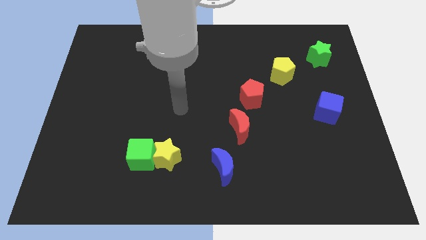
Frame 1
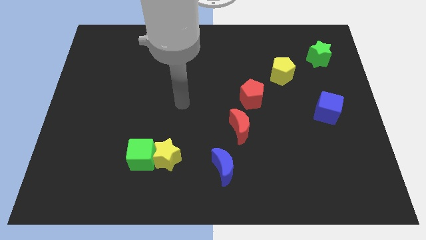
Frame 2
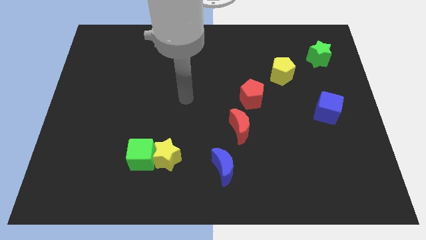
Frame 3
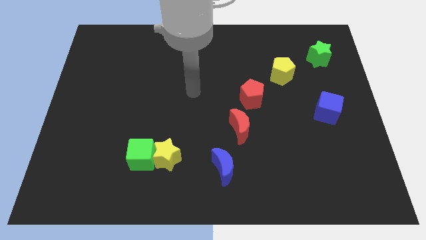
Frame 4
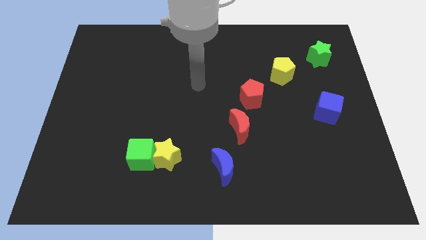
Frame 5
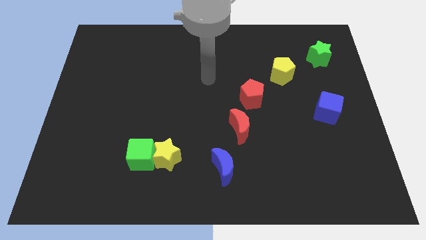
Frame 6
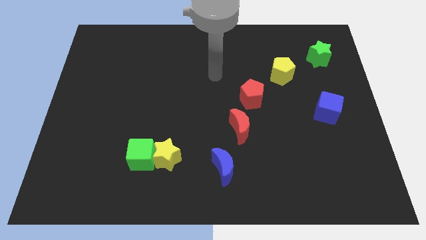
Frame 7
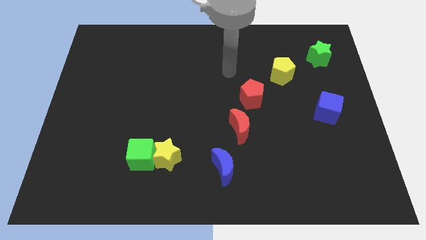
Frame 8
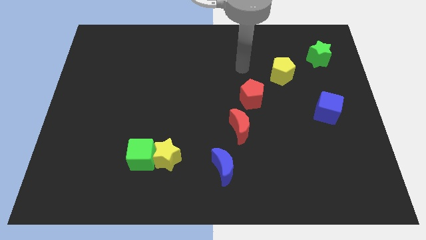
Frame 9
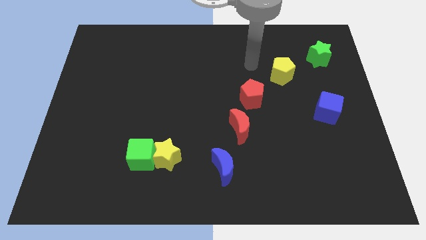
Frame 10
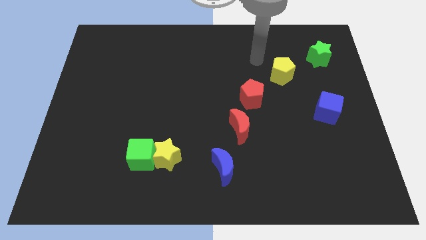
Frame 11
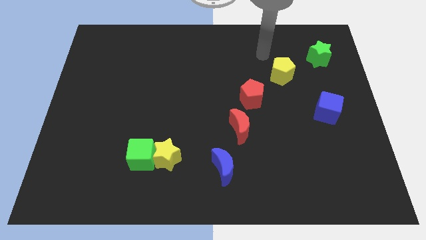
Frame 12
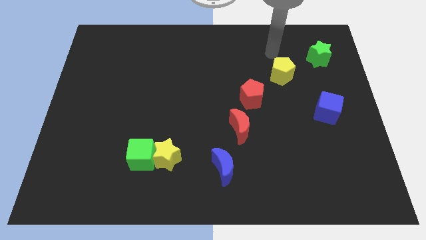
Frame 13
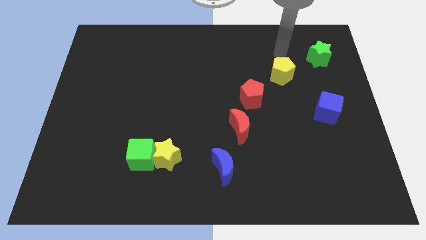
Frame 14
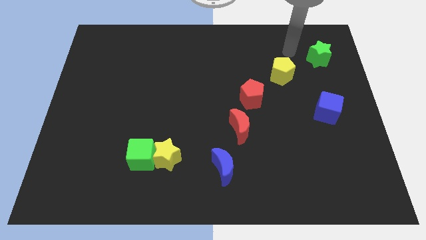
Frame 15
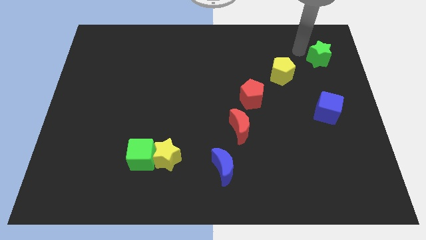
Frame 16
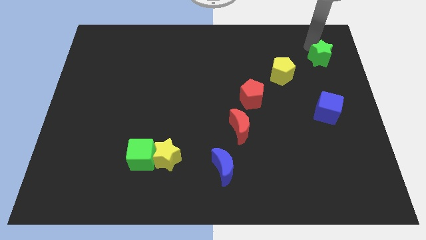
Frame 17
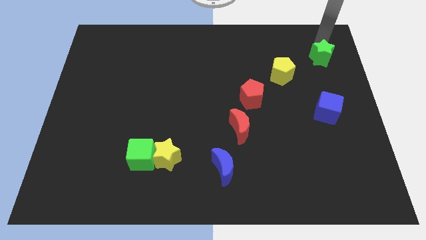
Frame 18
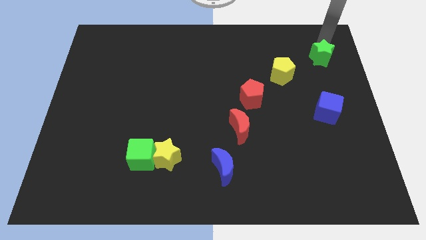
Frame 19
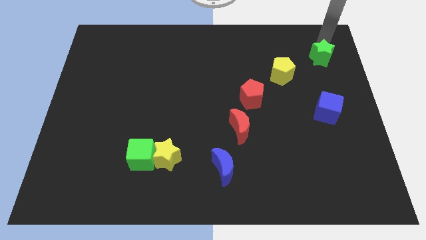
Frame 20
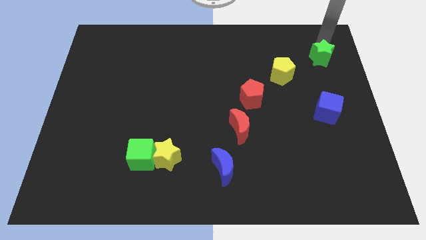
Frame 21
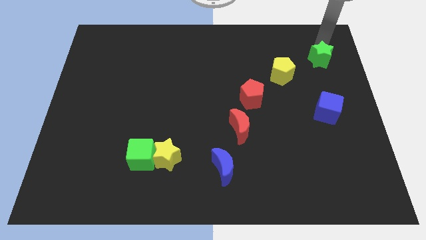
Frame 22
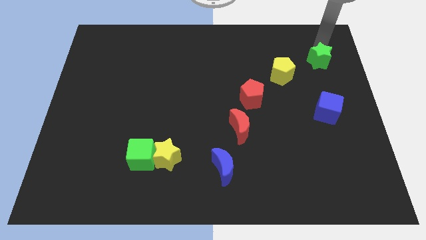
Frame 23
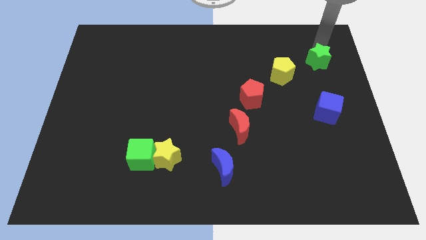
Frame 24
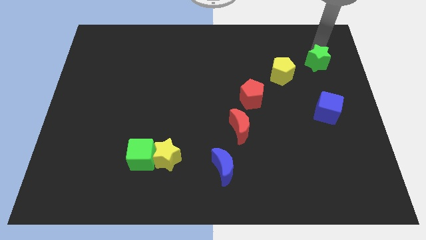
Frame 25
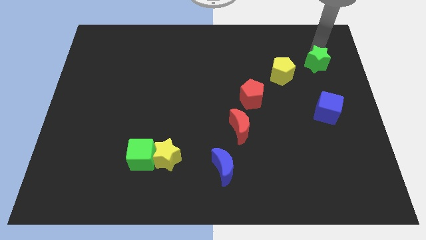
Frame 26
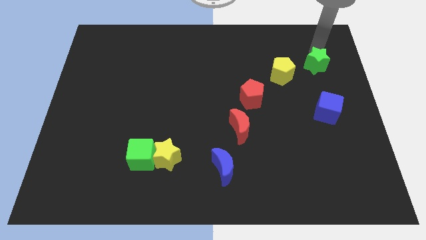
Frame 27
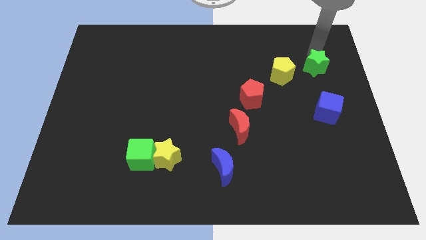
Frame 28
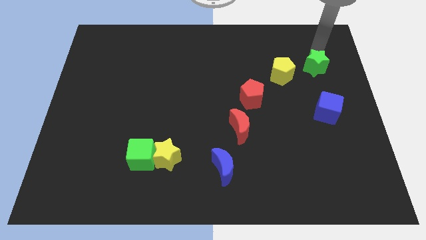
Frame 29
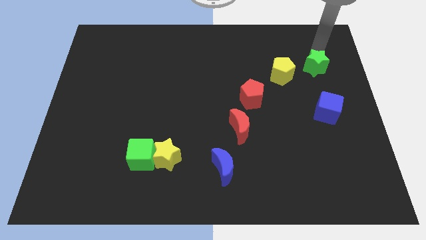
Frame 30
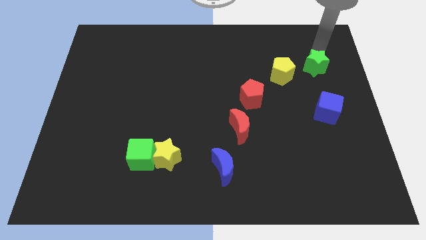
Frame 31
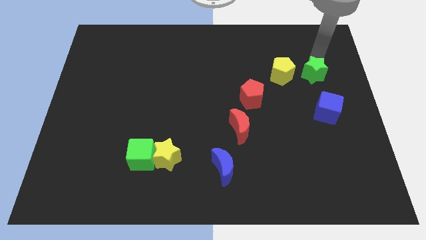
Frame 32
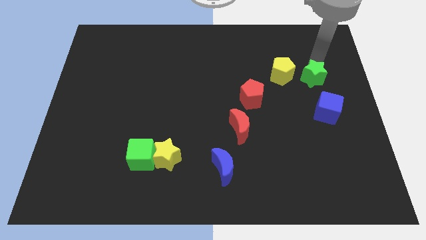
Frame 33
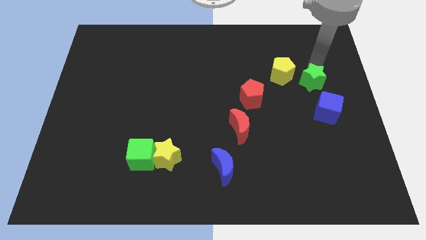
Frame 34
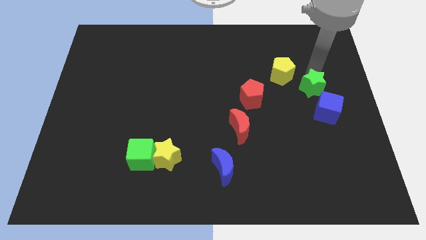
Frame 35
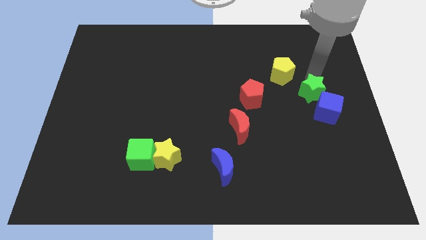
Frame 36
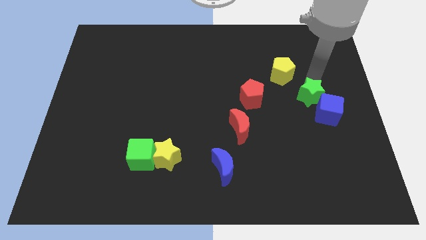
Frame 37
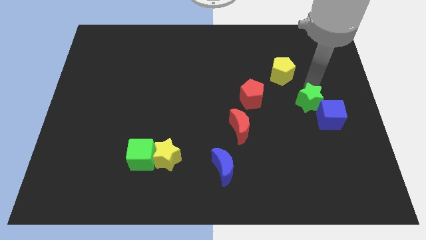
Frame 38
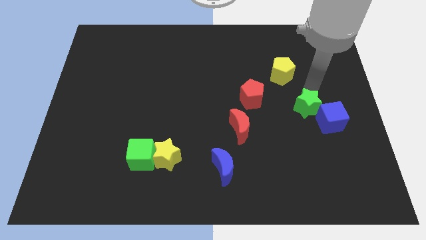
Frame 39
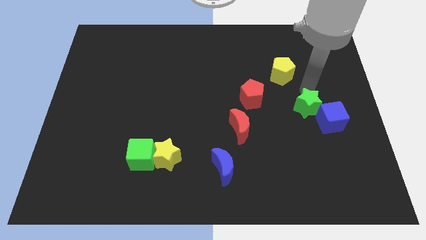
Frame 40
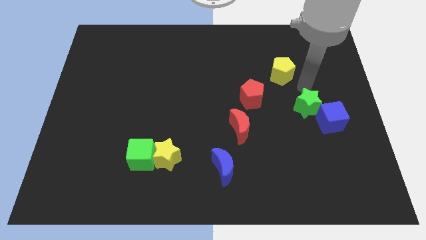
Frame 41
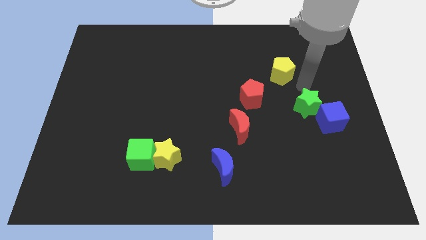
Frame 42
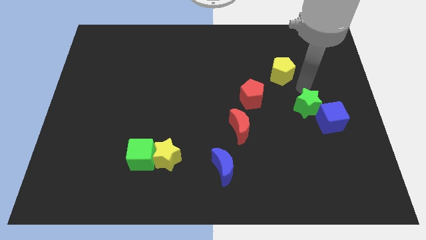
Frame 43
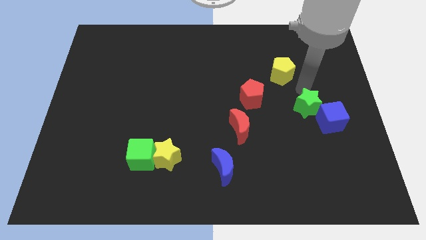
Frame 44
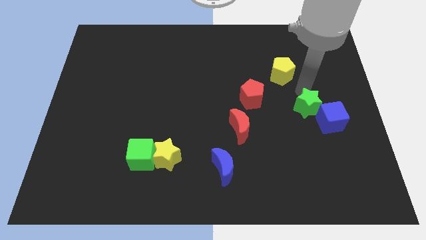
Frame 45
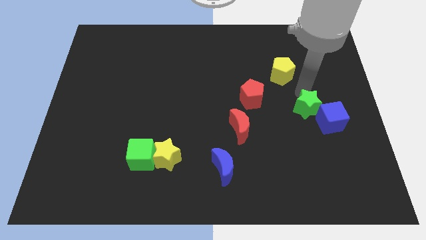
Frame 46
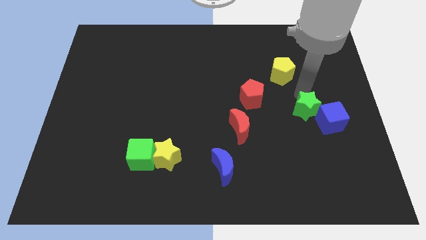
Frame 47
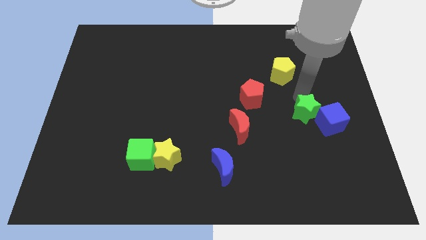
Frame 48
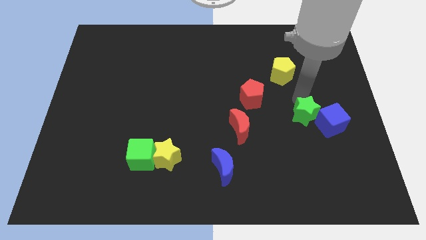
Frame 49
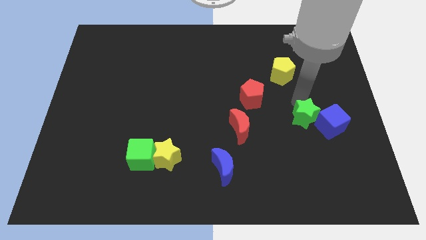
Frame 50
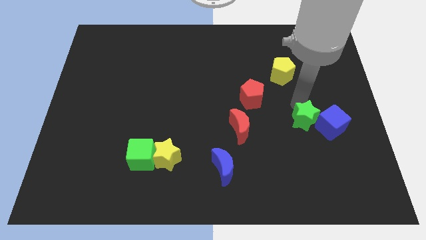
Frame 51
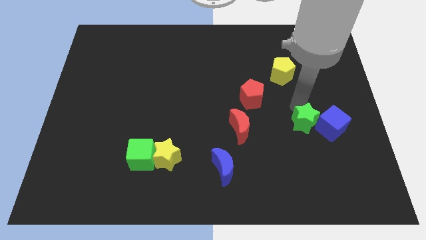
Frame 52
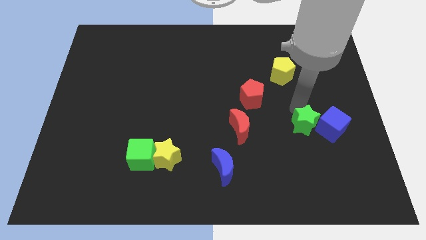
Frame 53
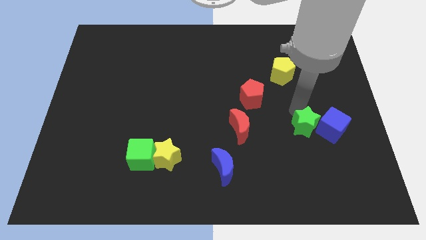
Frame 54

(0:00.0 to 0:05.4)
move the green star downwards

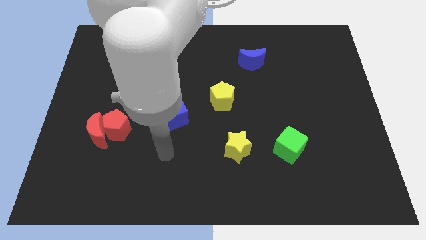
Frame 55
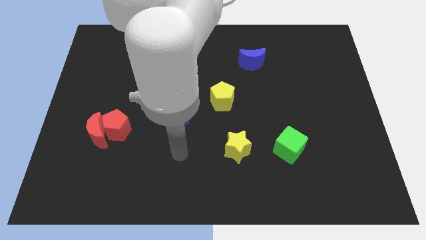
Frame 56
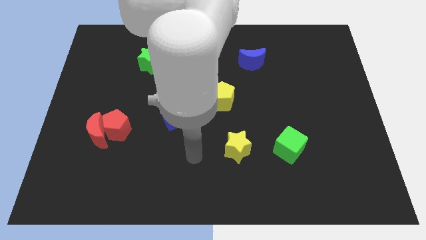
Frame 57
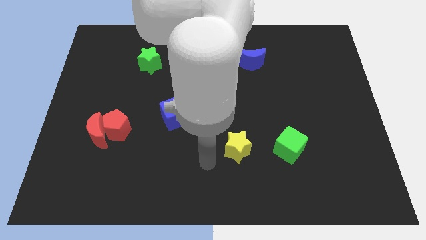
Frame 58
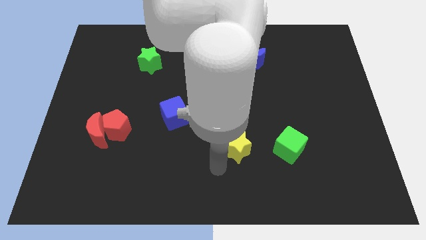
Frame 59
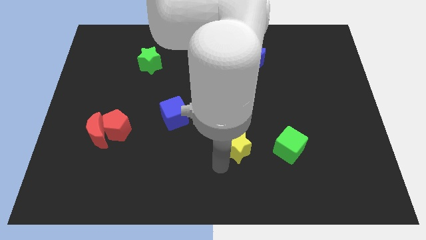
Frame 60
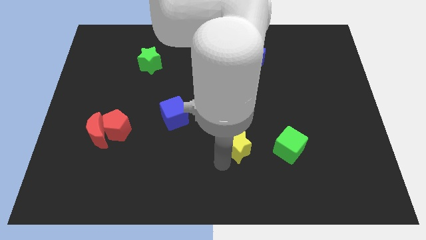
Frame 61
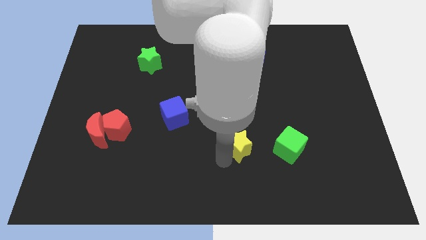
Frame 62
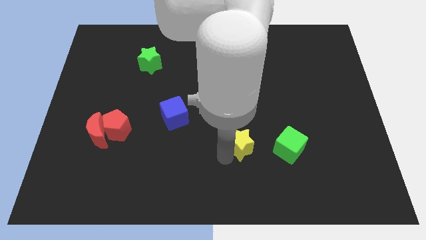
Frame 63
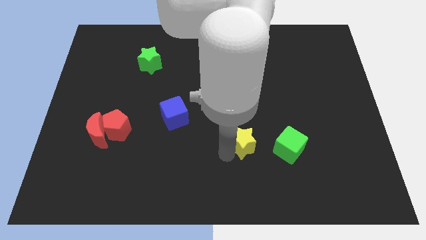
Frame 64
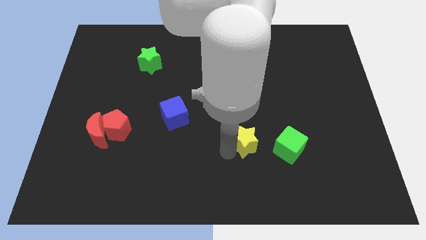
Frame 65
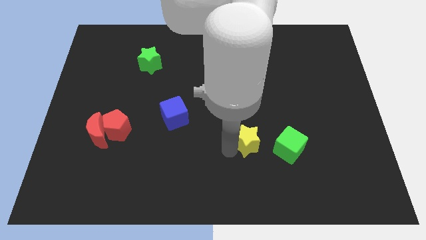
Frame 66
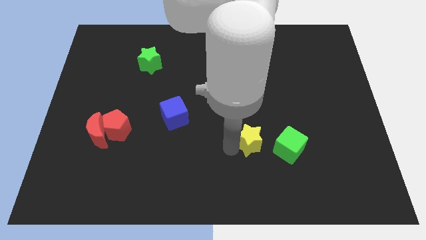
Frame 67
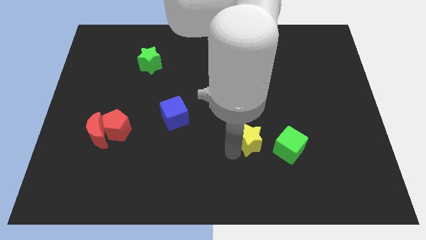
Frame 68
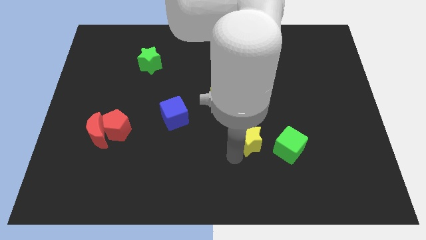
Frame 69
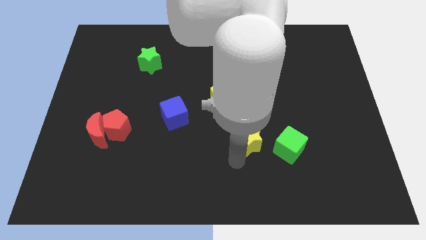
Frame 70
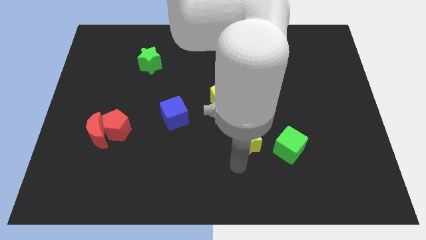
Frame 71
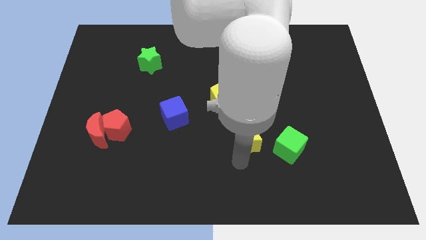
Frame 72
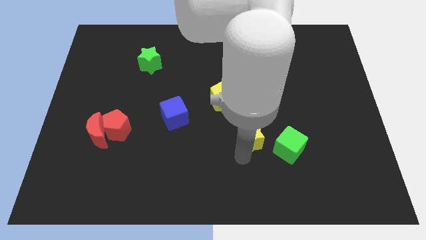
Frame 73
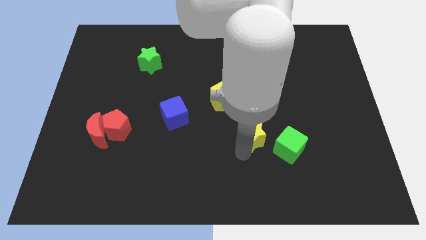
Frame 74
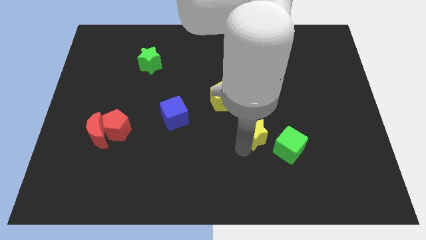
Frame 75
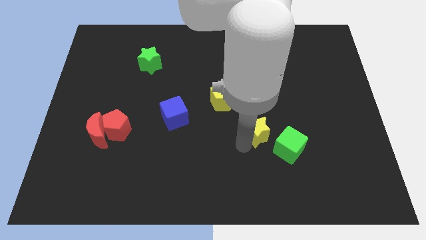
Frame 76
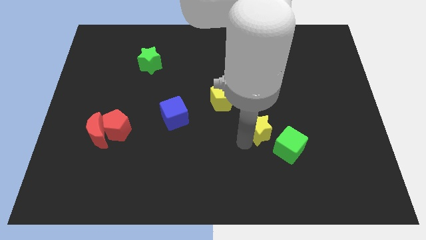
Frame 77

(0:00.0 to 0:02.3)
slightly push the yellow star up and then right

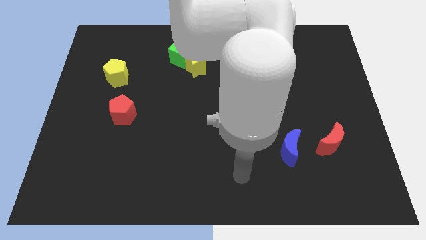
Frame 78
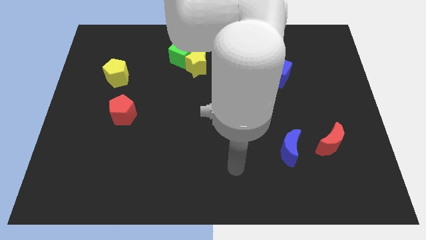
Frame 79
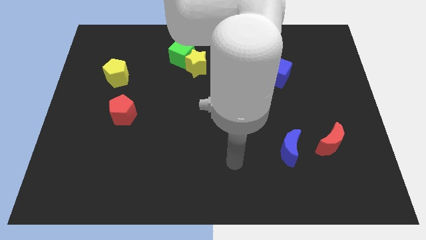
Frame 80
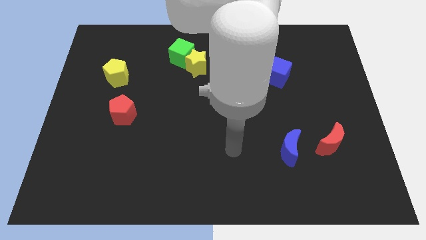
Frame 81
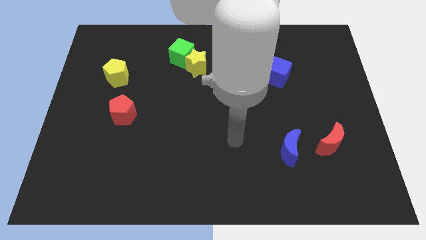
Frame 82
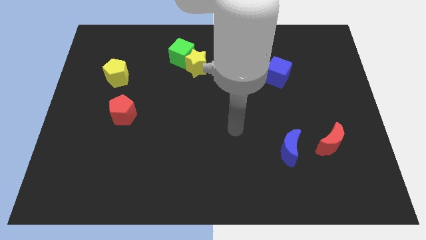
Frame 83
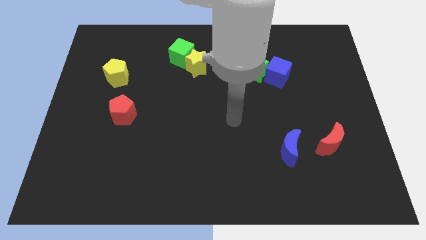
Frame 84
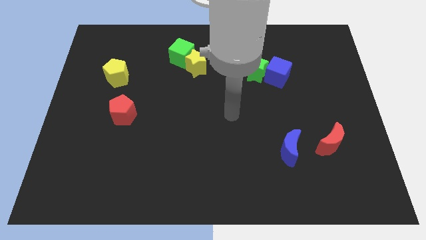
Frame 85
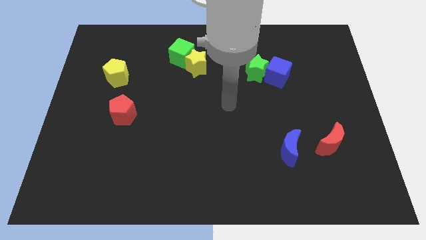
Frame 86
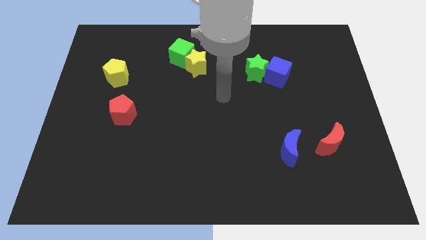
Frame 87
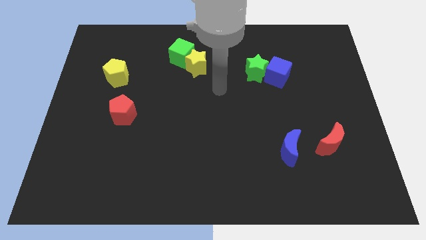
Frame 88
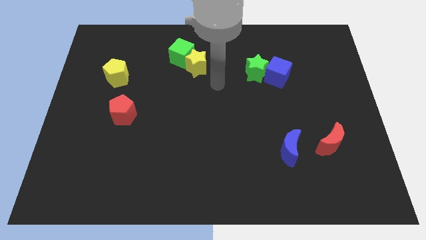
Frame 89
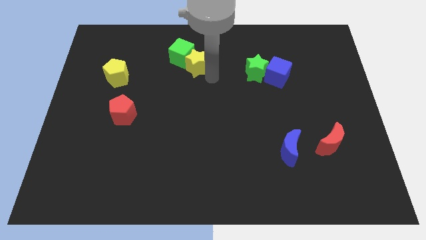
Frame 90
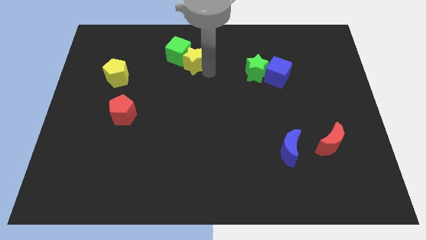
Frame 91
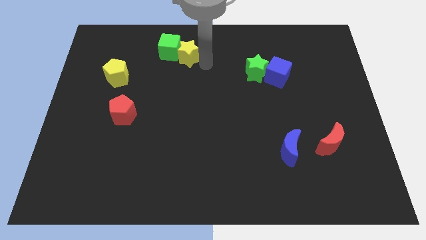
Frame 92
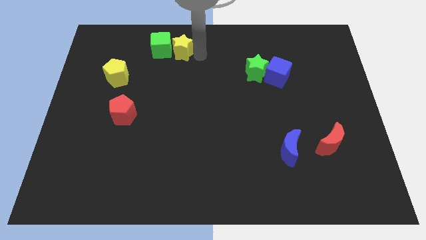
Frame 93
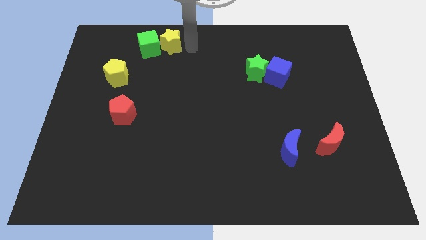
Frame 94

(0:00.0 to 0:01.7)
slide the green cube somewhat to the left
